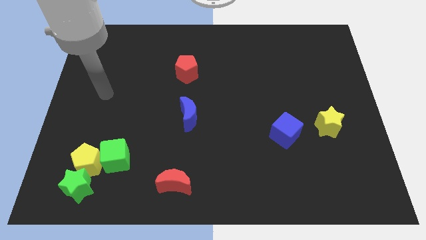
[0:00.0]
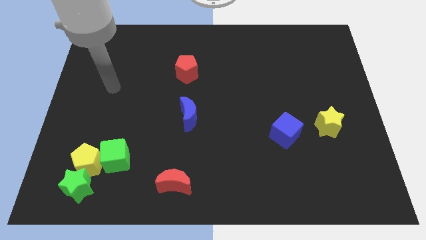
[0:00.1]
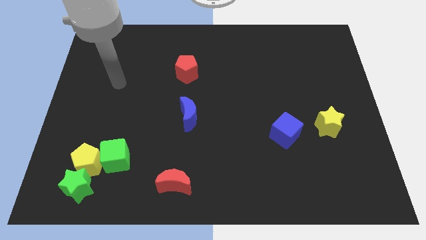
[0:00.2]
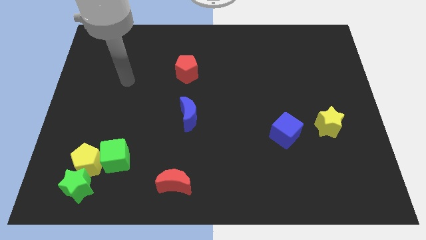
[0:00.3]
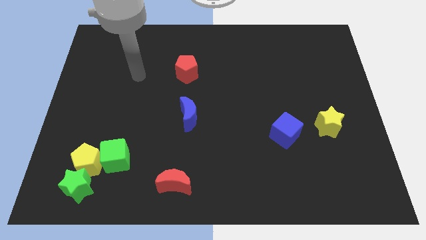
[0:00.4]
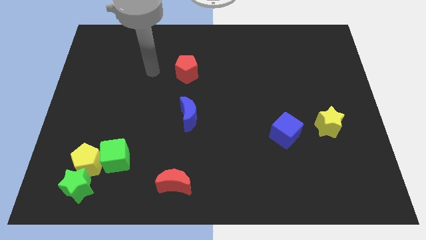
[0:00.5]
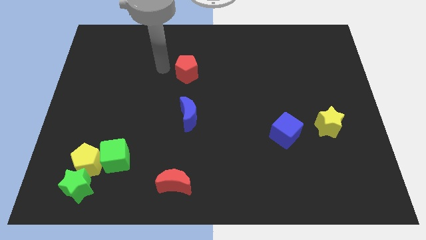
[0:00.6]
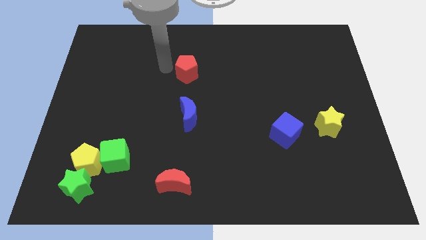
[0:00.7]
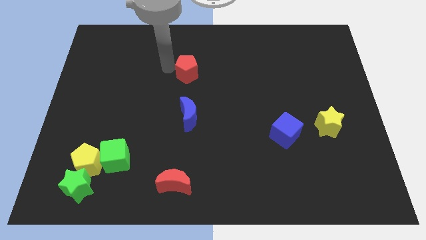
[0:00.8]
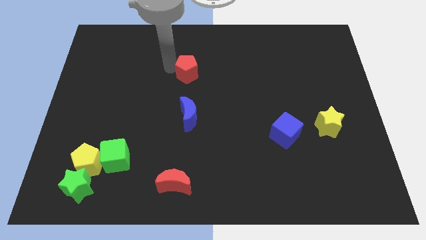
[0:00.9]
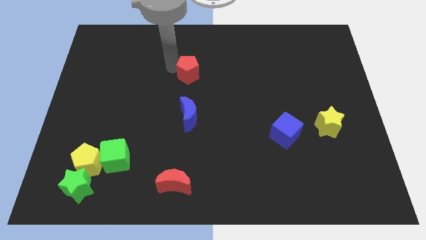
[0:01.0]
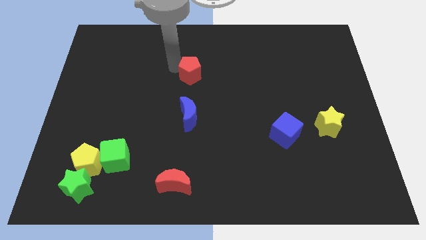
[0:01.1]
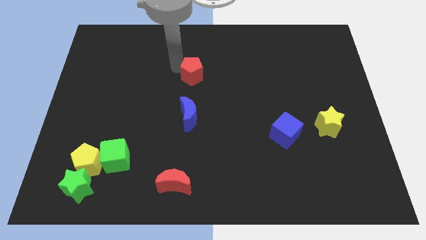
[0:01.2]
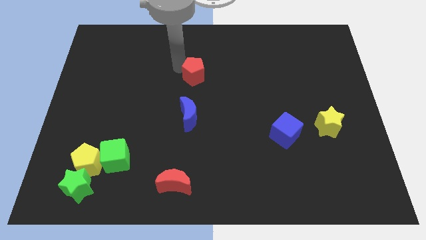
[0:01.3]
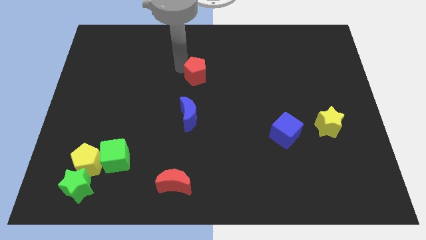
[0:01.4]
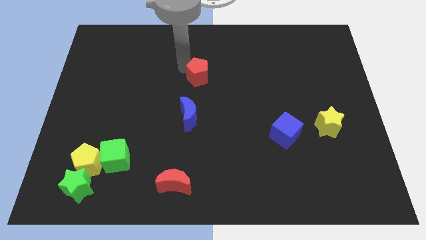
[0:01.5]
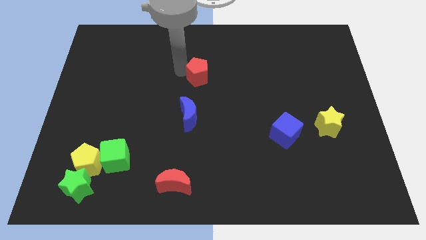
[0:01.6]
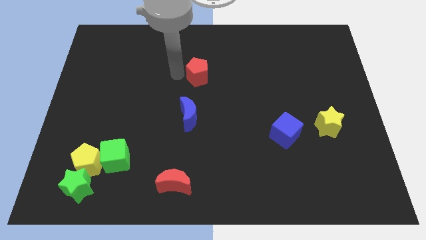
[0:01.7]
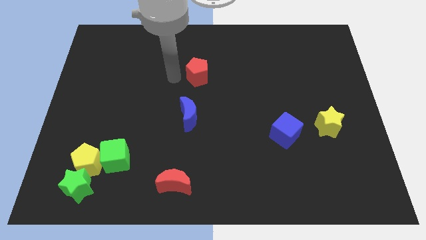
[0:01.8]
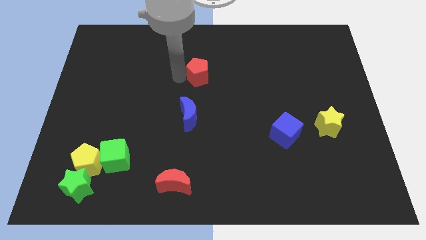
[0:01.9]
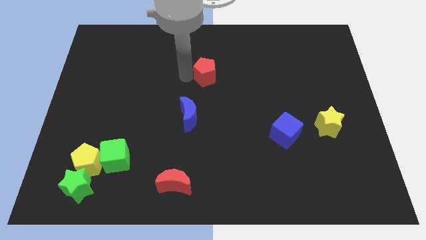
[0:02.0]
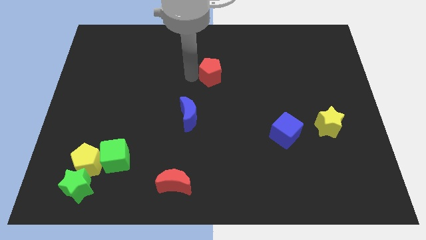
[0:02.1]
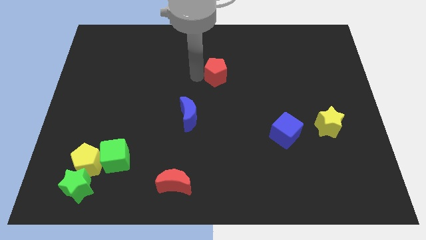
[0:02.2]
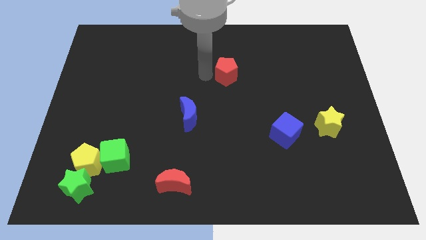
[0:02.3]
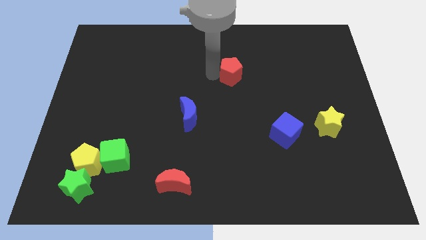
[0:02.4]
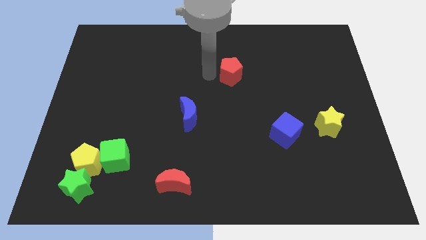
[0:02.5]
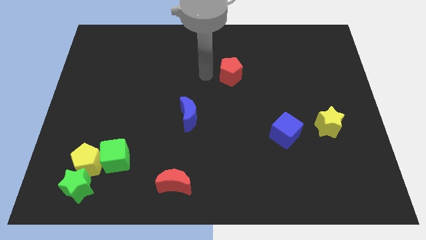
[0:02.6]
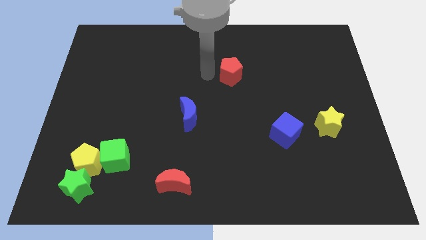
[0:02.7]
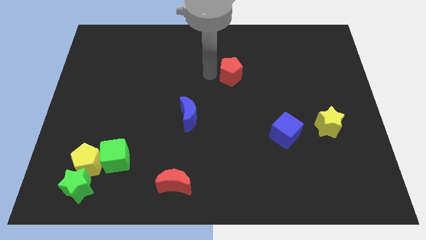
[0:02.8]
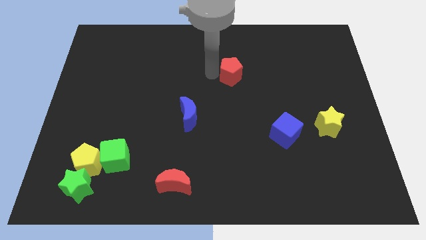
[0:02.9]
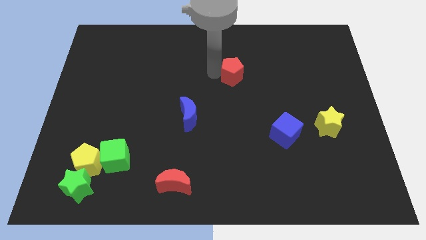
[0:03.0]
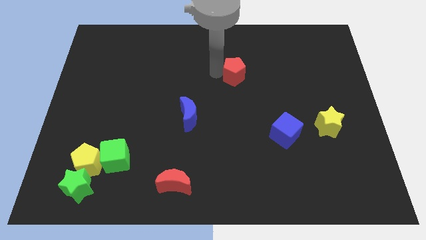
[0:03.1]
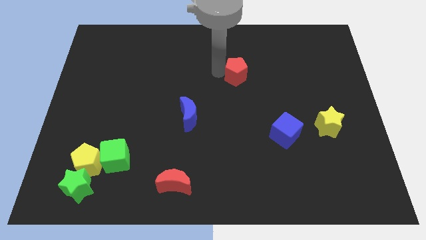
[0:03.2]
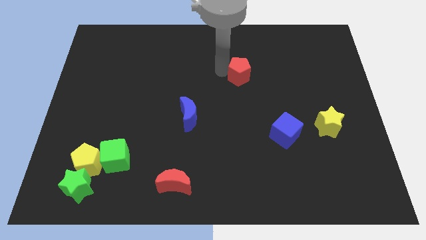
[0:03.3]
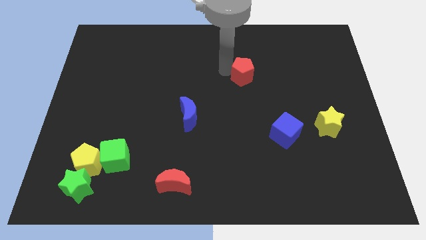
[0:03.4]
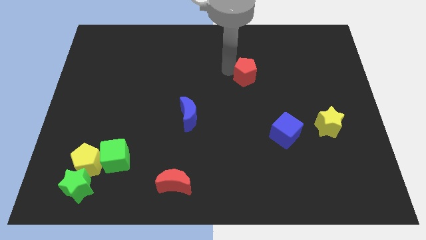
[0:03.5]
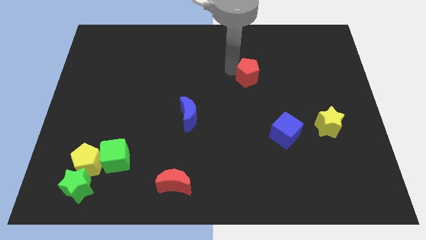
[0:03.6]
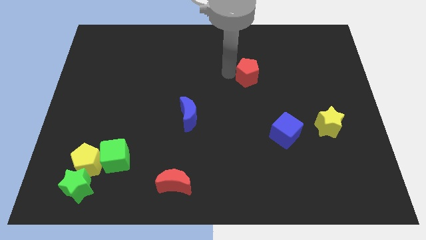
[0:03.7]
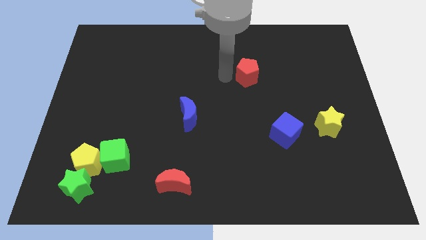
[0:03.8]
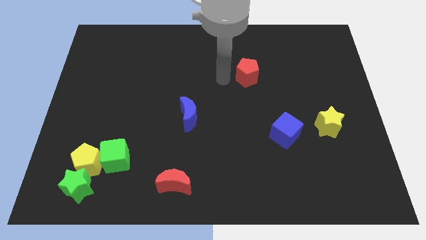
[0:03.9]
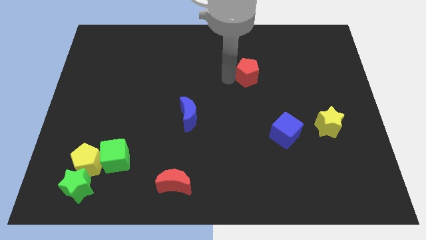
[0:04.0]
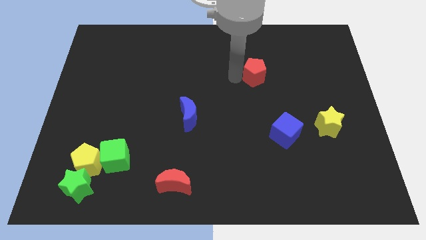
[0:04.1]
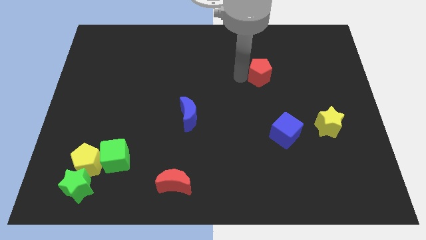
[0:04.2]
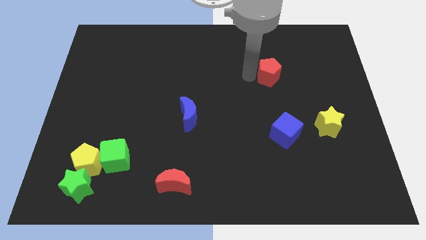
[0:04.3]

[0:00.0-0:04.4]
move the red pentagon to the right

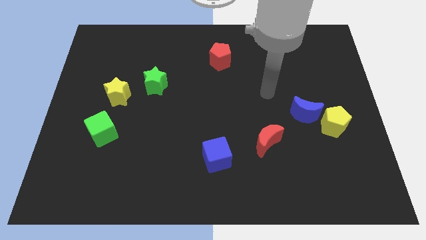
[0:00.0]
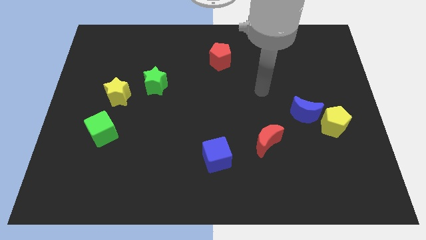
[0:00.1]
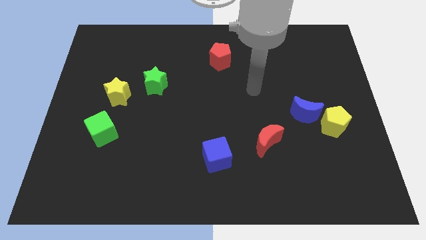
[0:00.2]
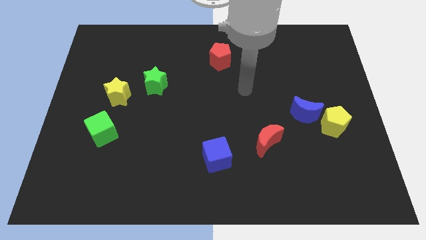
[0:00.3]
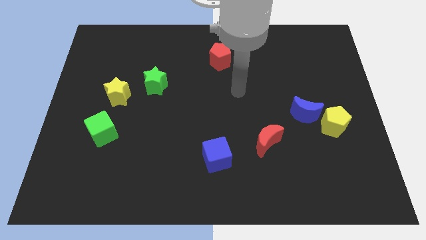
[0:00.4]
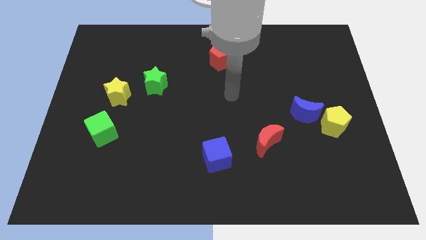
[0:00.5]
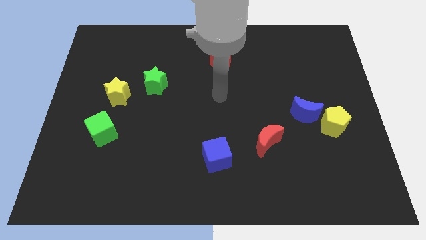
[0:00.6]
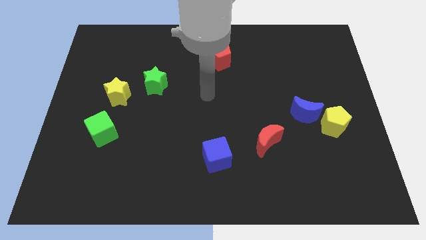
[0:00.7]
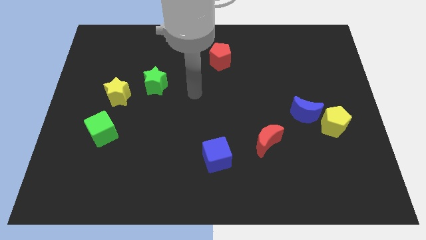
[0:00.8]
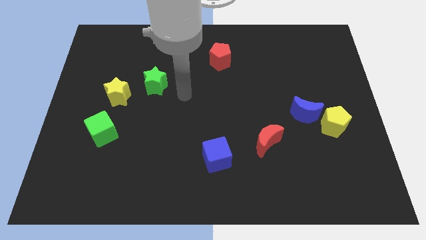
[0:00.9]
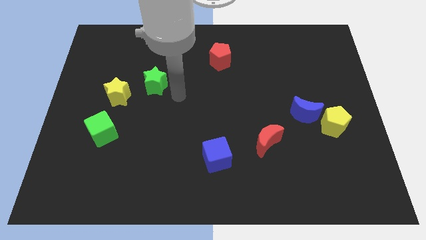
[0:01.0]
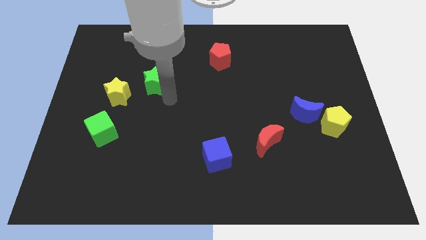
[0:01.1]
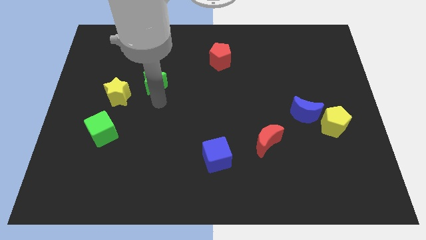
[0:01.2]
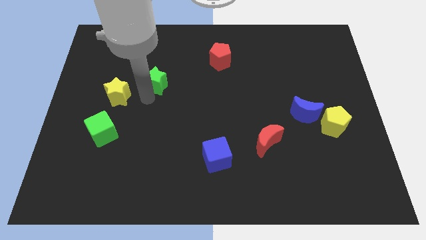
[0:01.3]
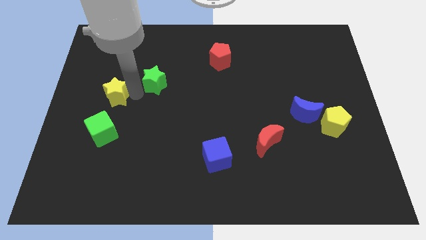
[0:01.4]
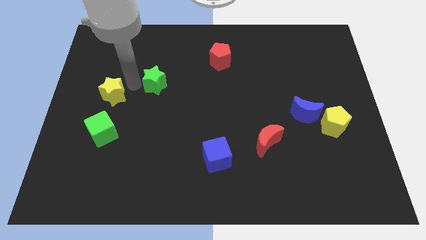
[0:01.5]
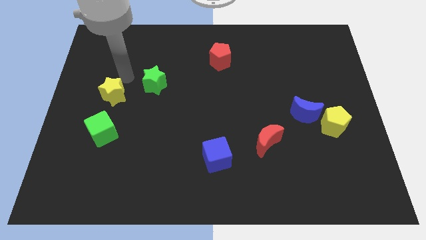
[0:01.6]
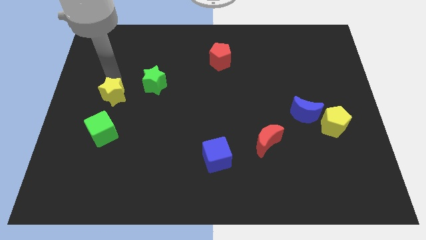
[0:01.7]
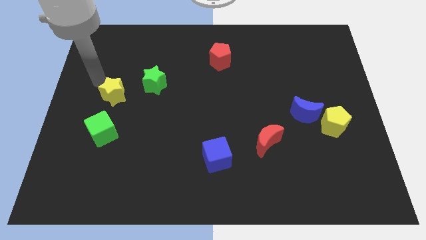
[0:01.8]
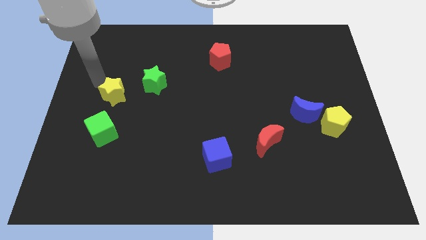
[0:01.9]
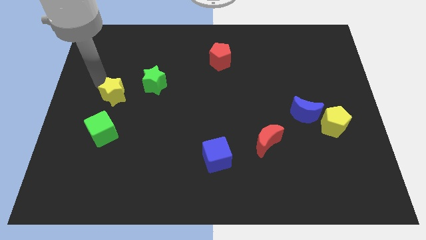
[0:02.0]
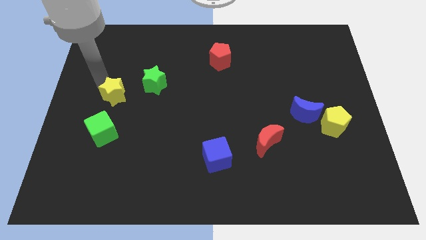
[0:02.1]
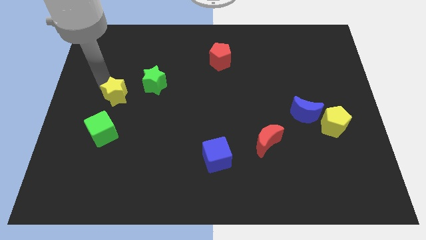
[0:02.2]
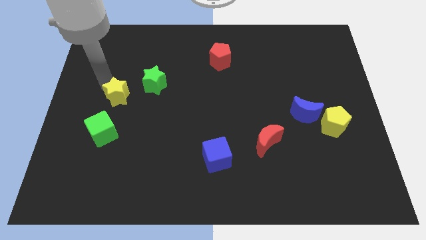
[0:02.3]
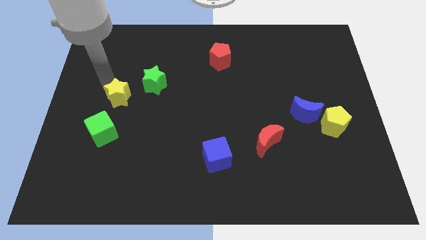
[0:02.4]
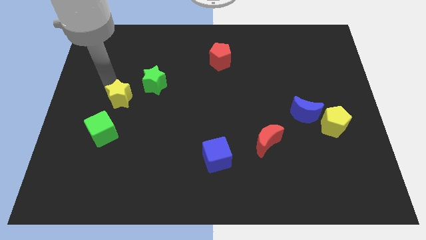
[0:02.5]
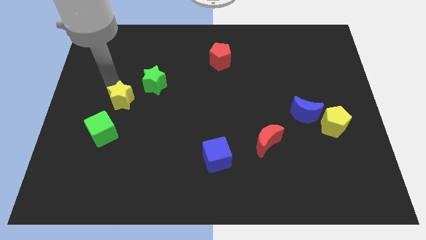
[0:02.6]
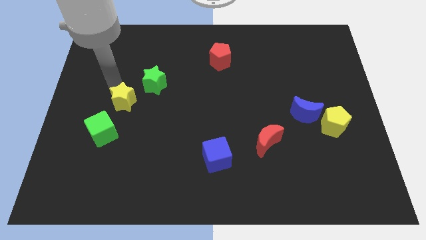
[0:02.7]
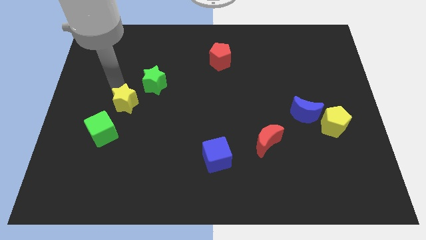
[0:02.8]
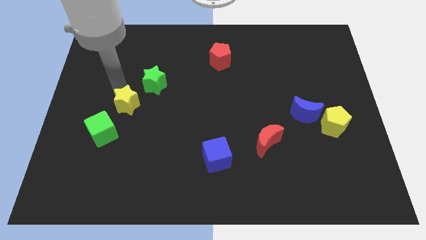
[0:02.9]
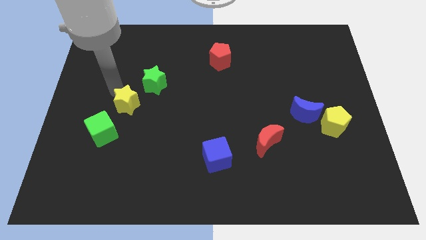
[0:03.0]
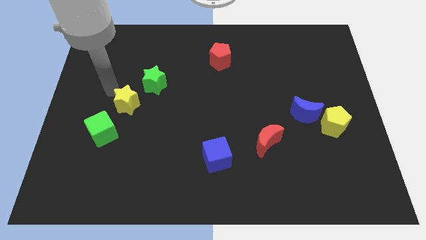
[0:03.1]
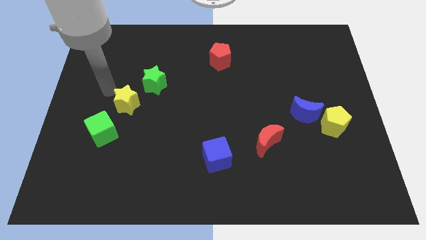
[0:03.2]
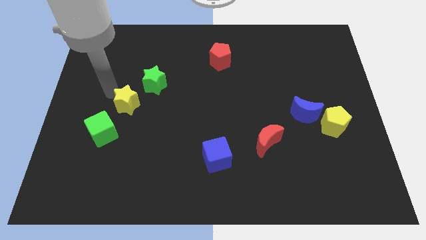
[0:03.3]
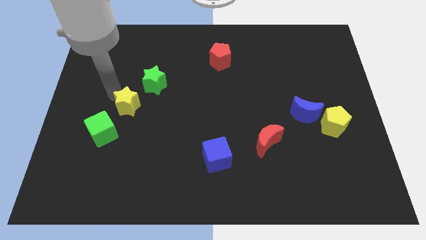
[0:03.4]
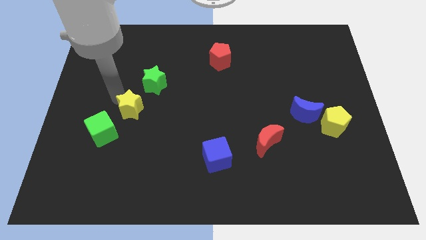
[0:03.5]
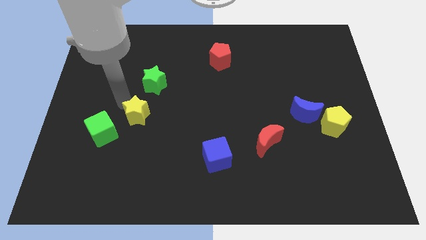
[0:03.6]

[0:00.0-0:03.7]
slide the yellow star downwards and to the right diagonally a little bit

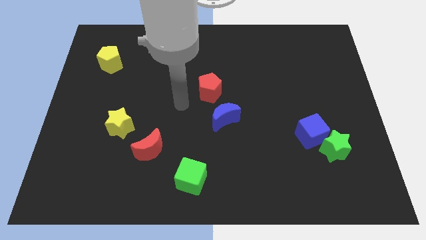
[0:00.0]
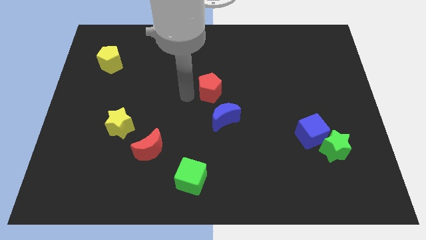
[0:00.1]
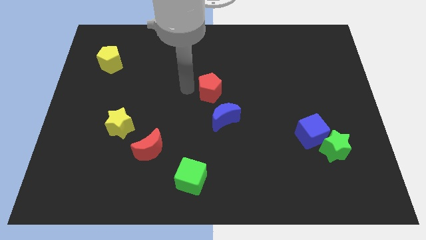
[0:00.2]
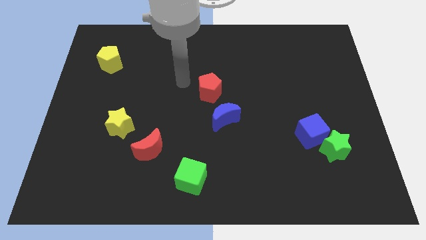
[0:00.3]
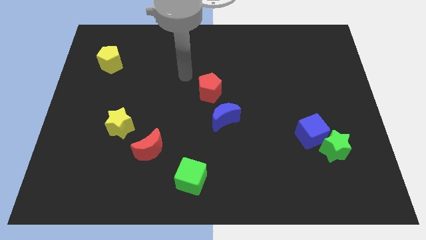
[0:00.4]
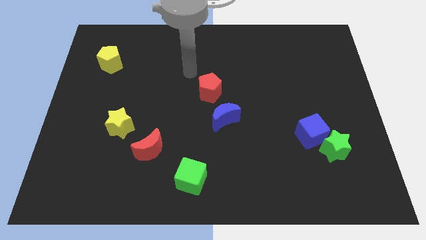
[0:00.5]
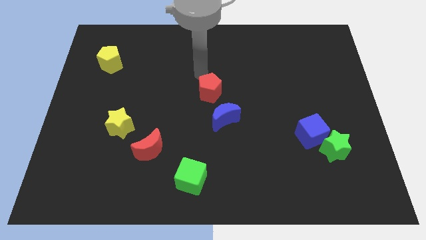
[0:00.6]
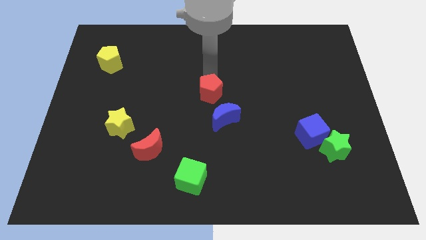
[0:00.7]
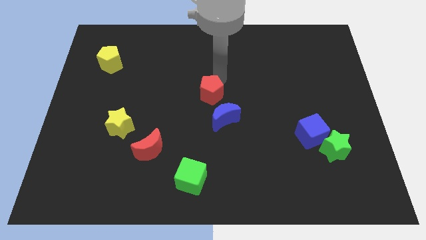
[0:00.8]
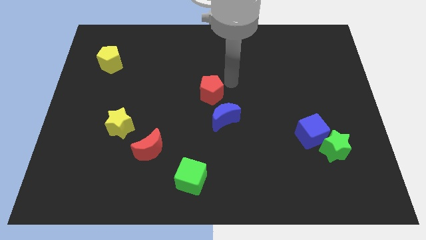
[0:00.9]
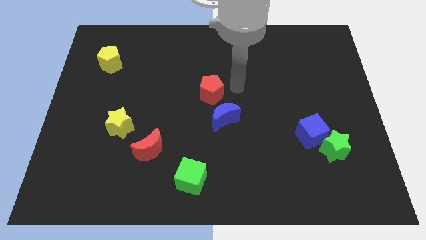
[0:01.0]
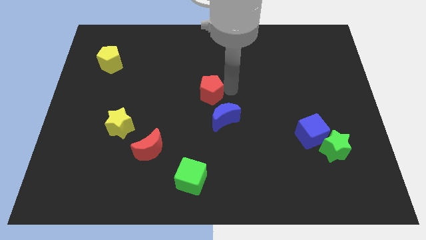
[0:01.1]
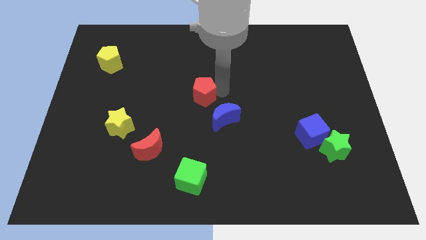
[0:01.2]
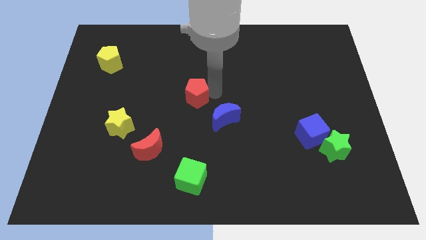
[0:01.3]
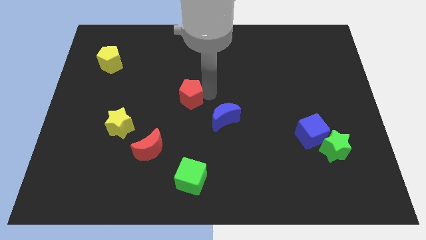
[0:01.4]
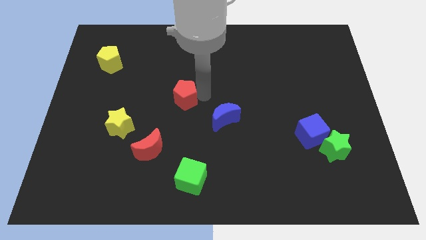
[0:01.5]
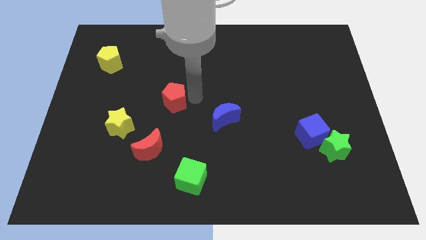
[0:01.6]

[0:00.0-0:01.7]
slightly slide the red pentagon left
